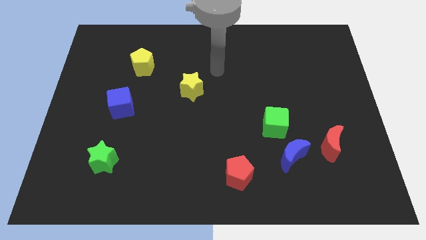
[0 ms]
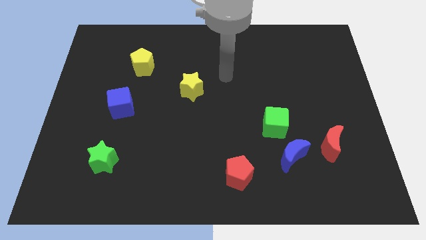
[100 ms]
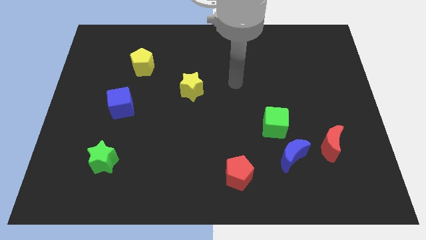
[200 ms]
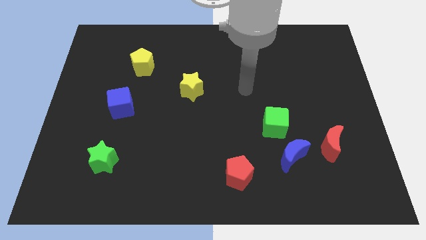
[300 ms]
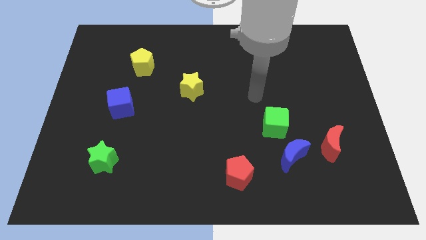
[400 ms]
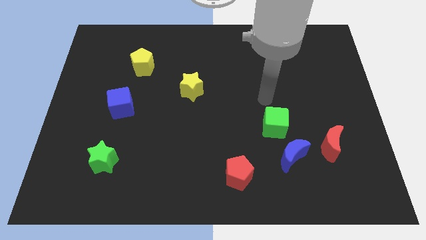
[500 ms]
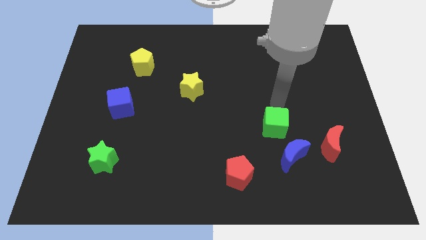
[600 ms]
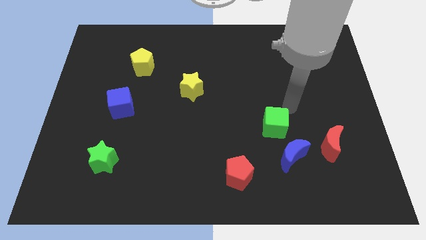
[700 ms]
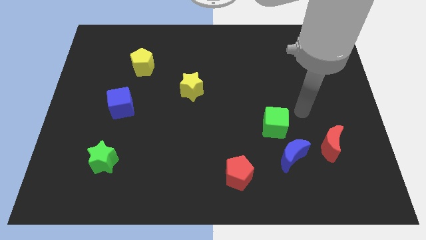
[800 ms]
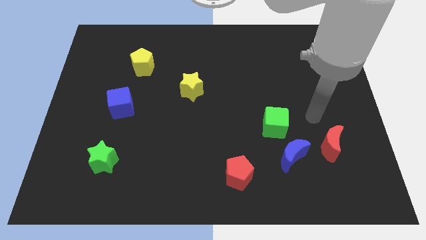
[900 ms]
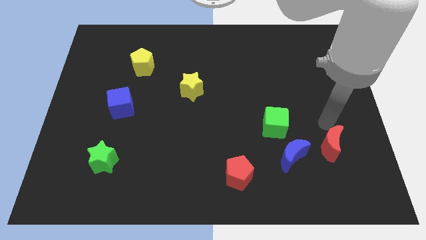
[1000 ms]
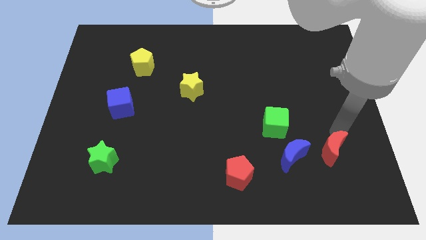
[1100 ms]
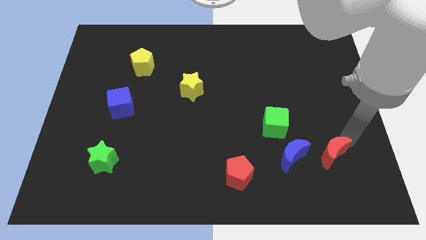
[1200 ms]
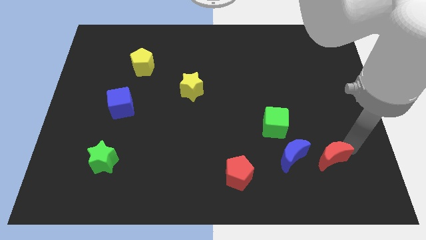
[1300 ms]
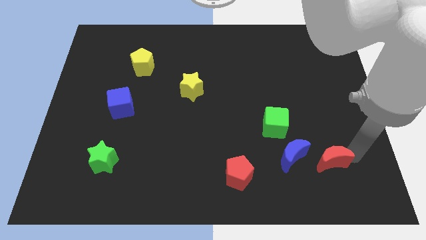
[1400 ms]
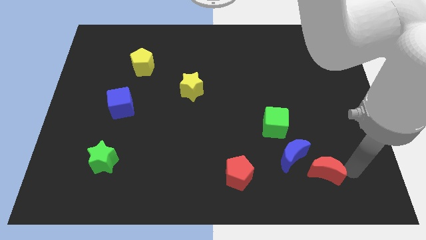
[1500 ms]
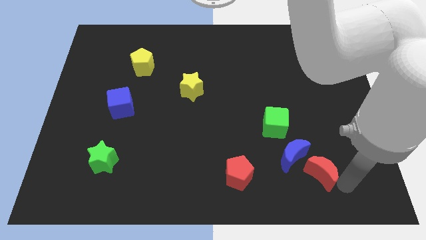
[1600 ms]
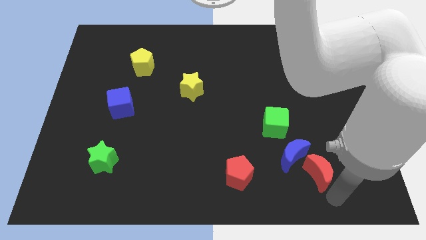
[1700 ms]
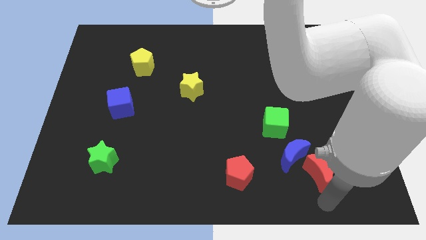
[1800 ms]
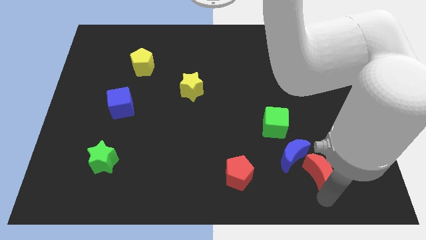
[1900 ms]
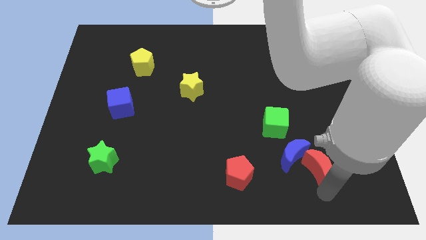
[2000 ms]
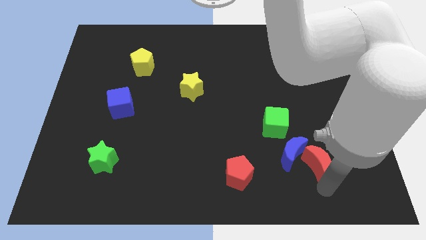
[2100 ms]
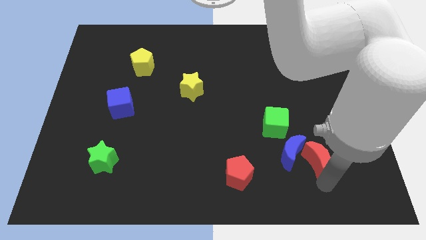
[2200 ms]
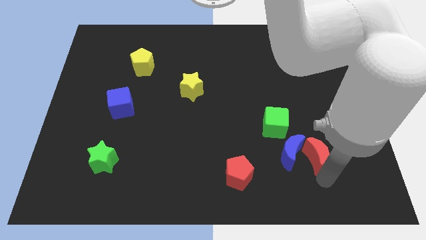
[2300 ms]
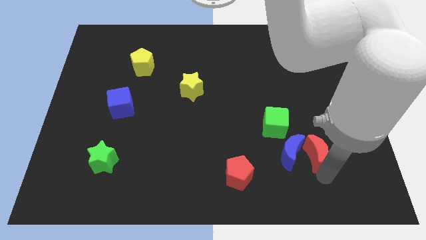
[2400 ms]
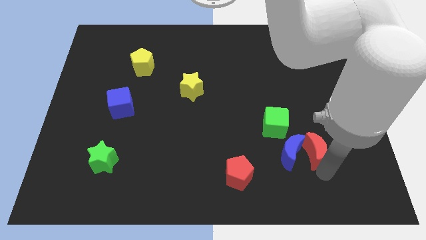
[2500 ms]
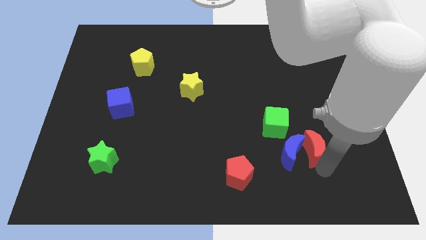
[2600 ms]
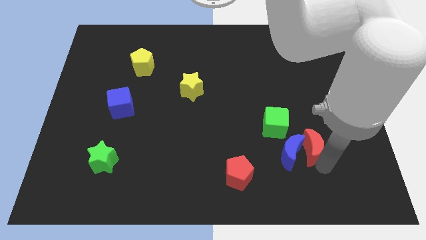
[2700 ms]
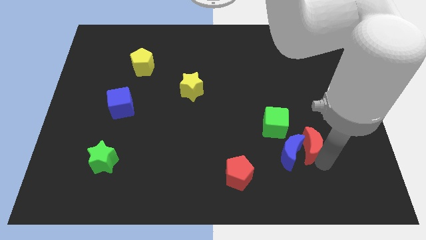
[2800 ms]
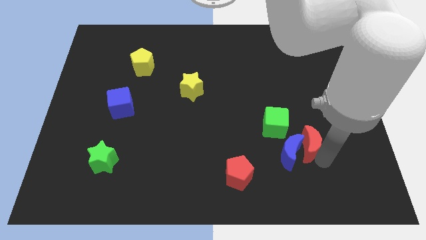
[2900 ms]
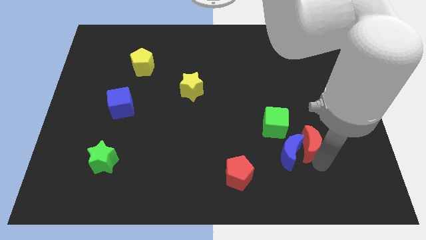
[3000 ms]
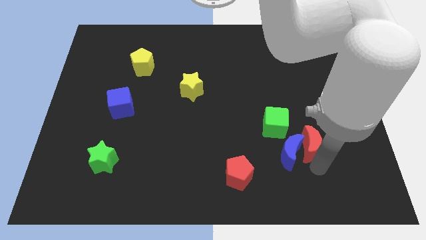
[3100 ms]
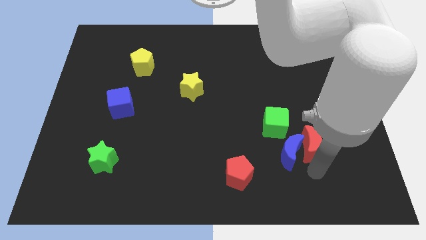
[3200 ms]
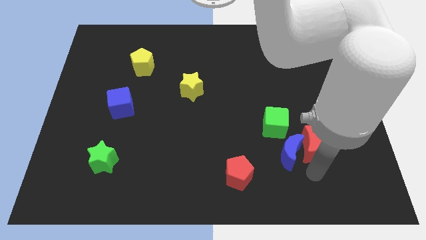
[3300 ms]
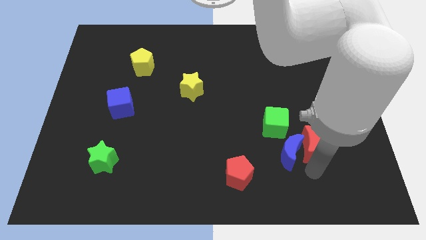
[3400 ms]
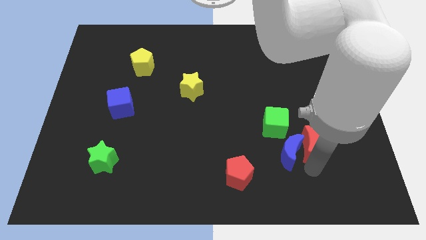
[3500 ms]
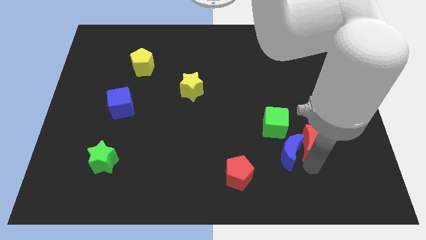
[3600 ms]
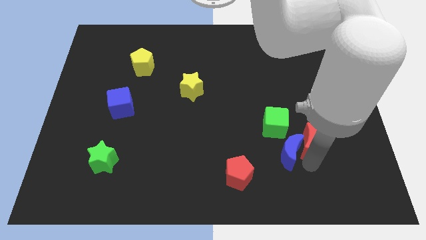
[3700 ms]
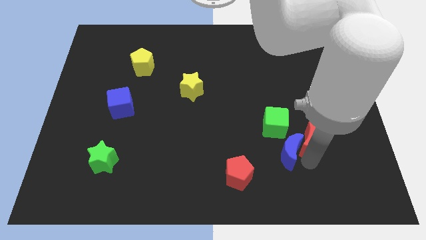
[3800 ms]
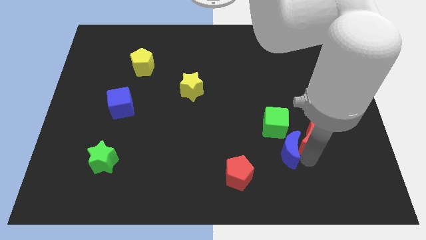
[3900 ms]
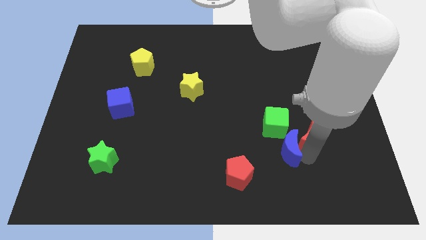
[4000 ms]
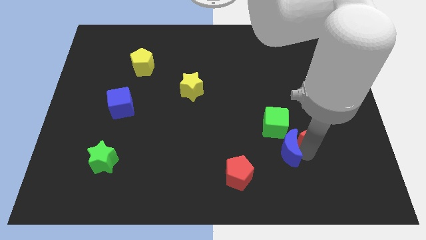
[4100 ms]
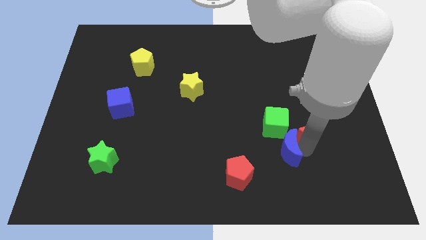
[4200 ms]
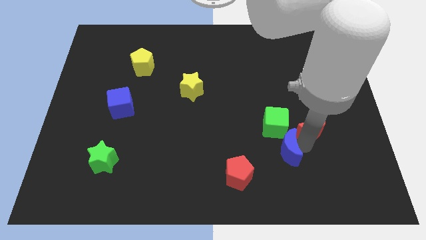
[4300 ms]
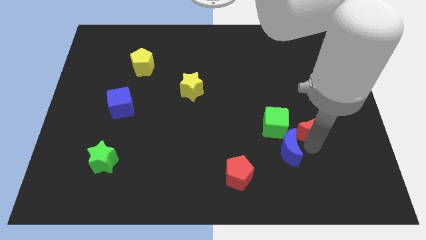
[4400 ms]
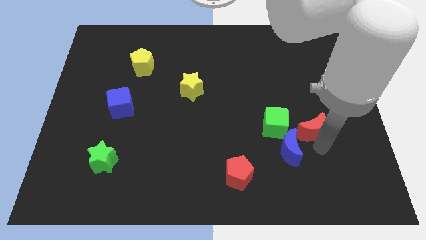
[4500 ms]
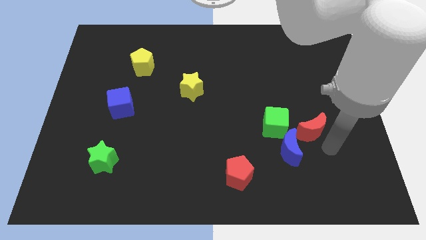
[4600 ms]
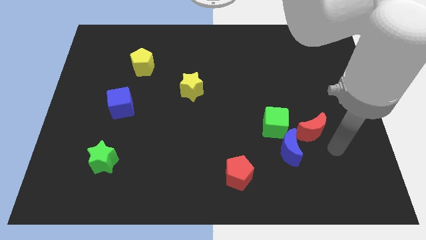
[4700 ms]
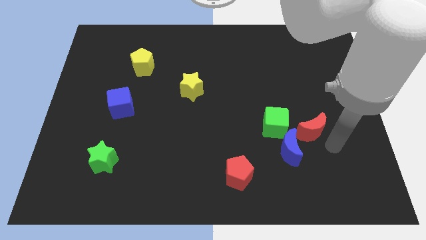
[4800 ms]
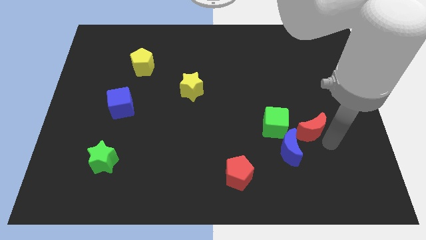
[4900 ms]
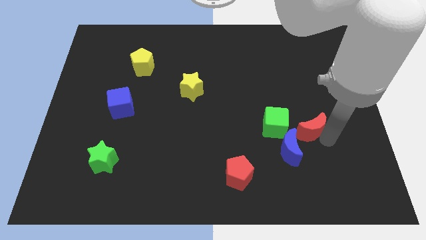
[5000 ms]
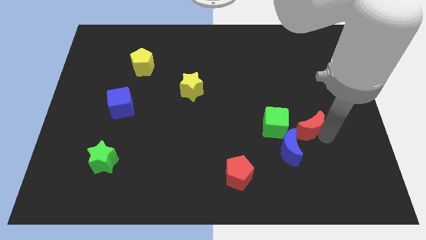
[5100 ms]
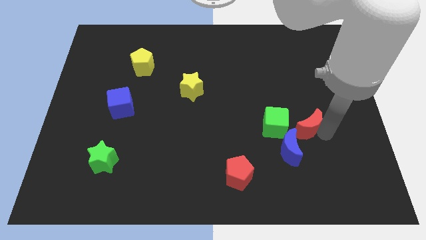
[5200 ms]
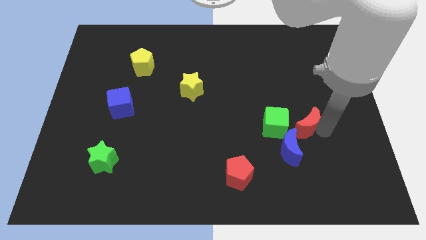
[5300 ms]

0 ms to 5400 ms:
slide the red moon above the blue moon
